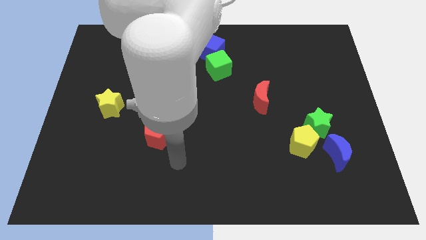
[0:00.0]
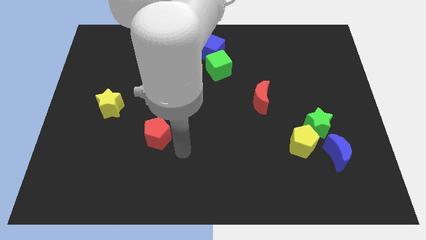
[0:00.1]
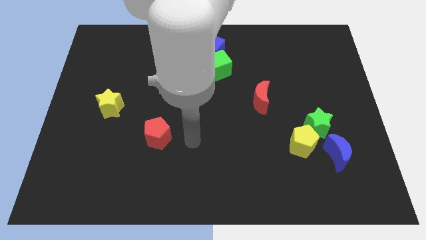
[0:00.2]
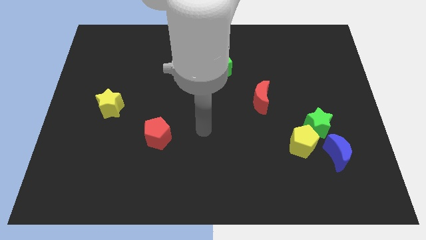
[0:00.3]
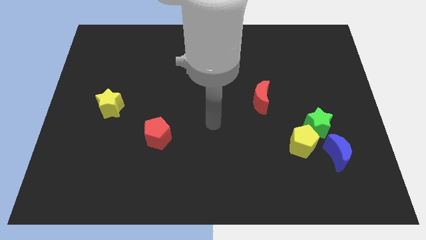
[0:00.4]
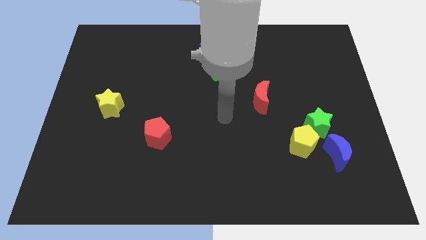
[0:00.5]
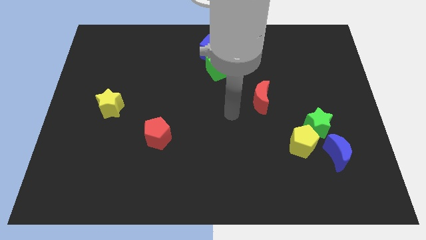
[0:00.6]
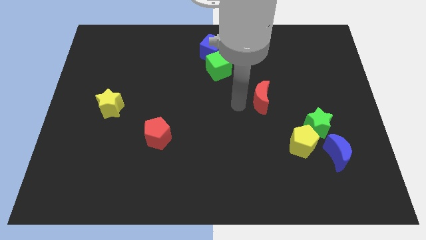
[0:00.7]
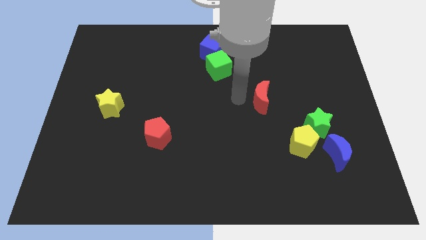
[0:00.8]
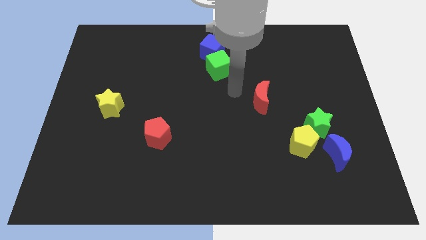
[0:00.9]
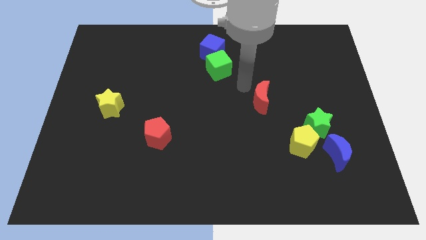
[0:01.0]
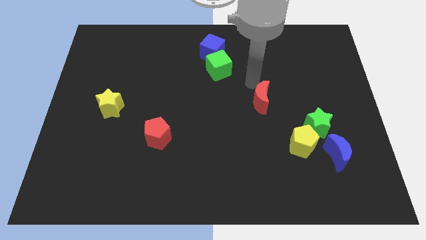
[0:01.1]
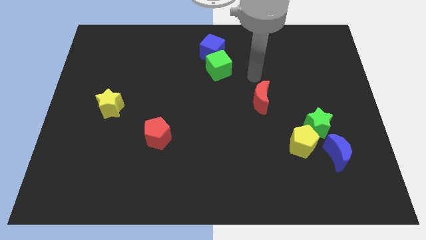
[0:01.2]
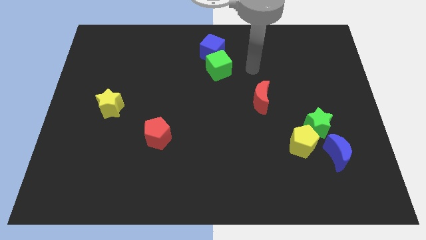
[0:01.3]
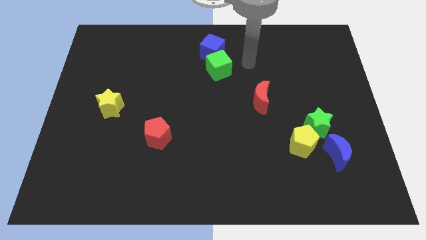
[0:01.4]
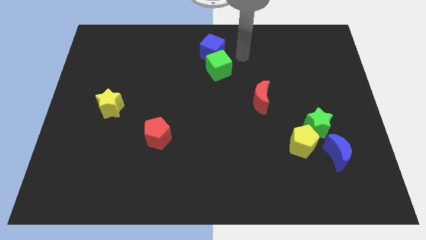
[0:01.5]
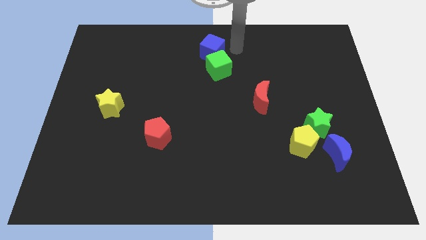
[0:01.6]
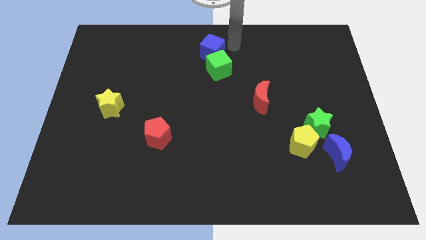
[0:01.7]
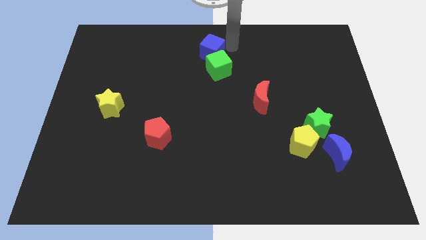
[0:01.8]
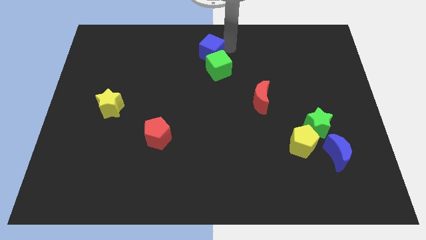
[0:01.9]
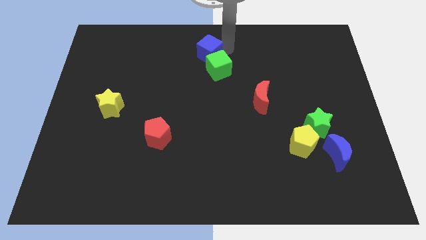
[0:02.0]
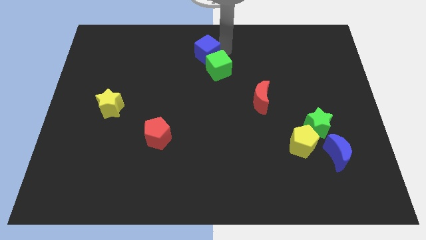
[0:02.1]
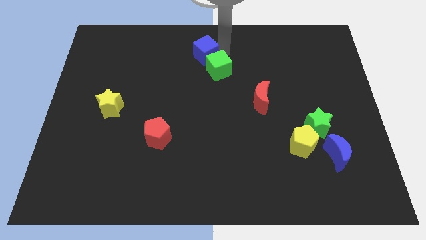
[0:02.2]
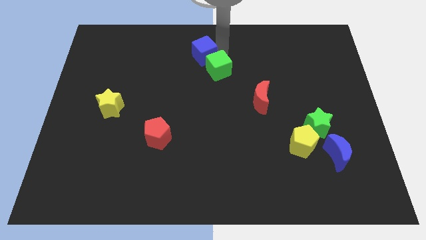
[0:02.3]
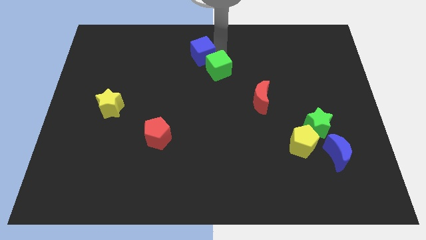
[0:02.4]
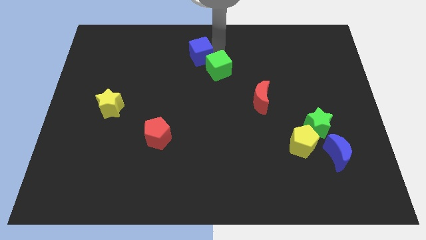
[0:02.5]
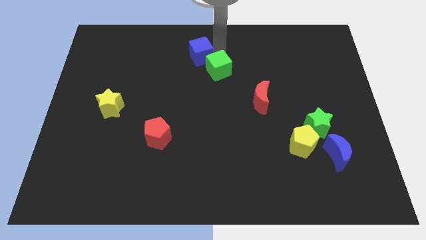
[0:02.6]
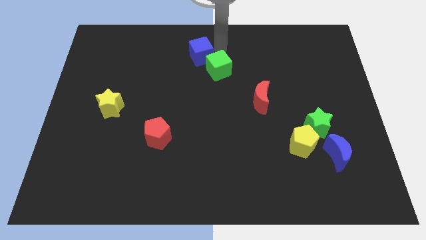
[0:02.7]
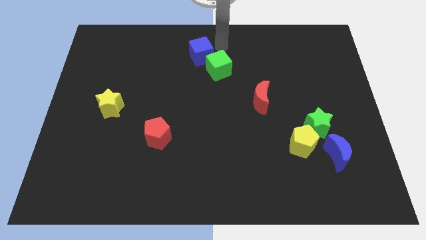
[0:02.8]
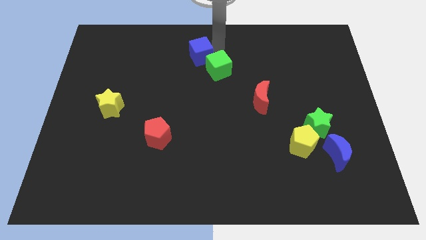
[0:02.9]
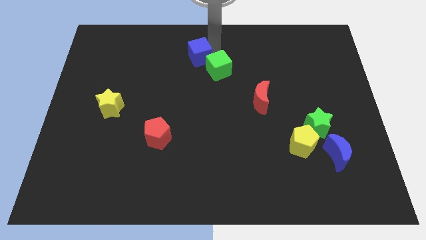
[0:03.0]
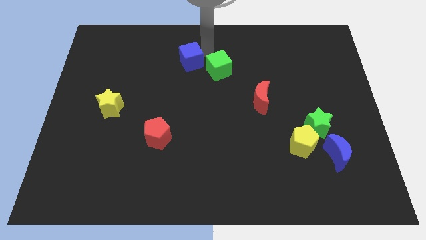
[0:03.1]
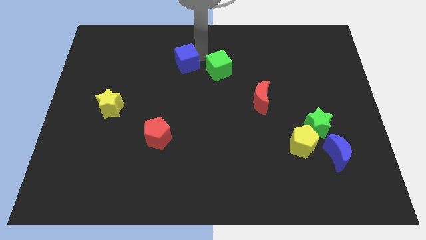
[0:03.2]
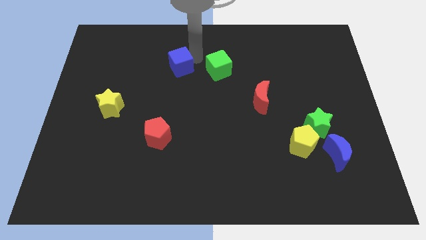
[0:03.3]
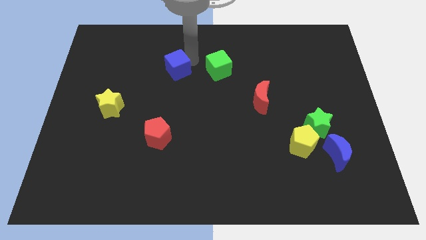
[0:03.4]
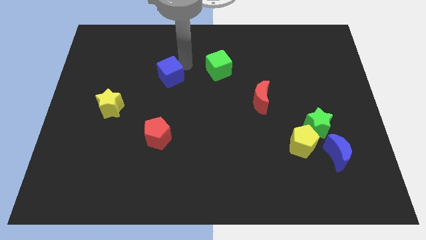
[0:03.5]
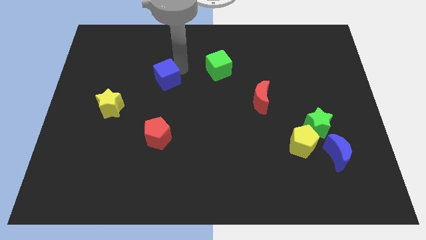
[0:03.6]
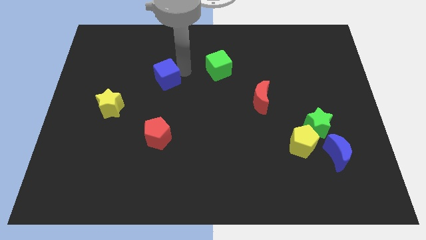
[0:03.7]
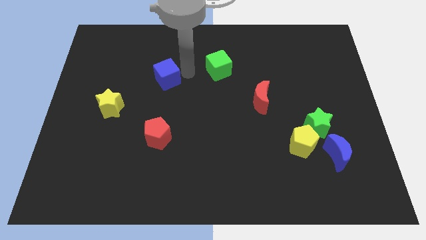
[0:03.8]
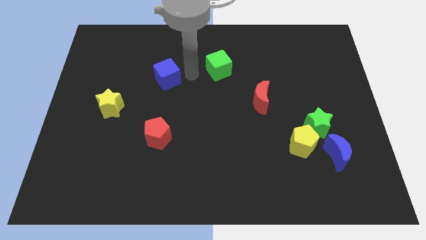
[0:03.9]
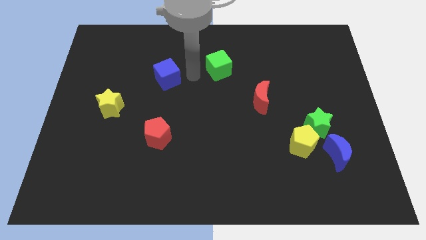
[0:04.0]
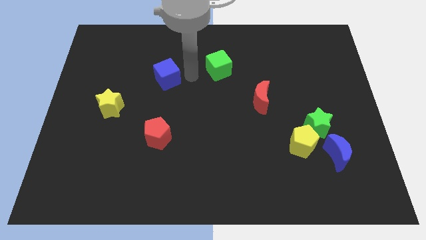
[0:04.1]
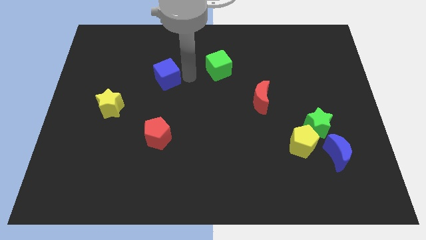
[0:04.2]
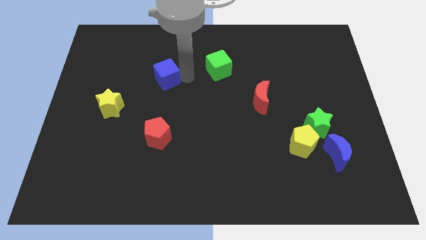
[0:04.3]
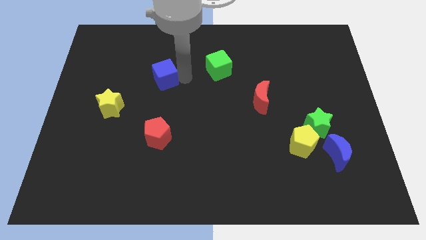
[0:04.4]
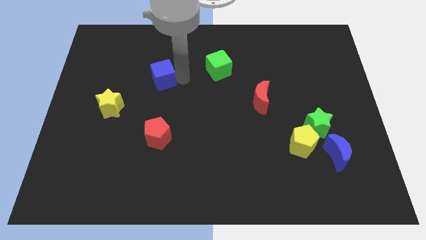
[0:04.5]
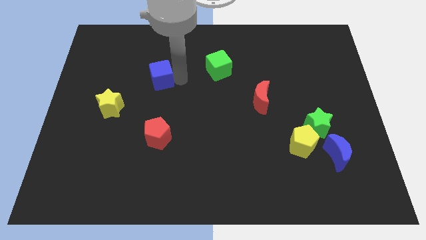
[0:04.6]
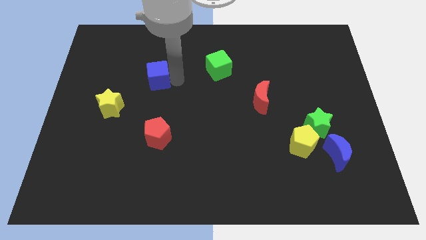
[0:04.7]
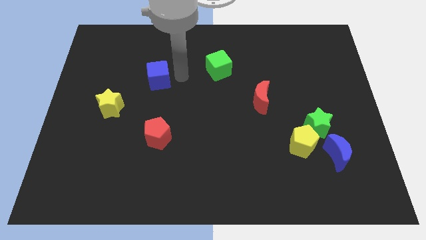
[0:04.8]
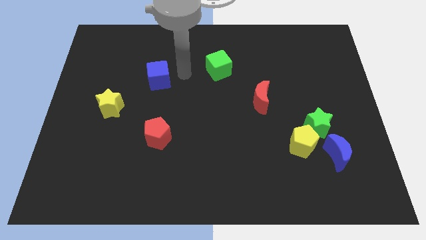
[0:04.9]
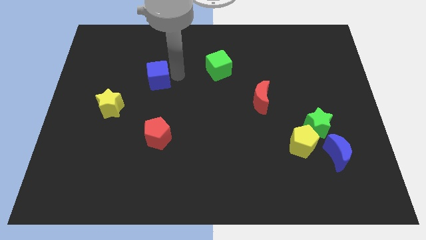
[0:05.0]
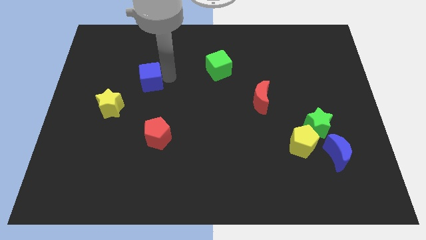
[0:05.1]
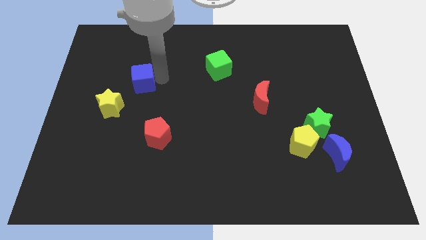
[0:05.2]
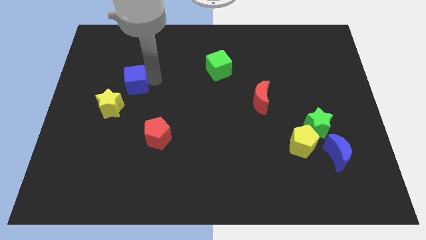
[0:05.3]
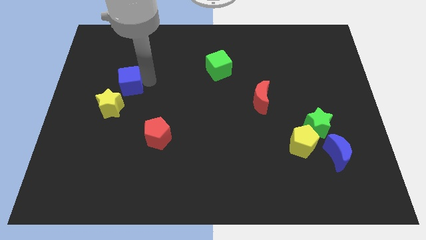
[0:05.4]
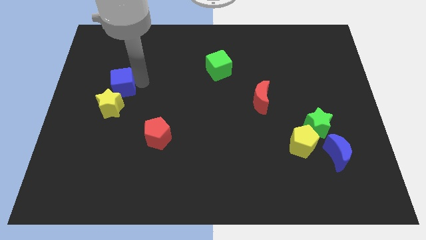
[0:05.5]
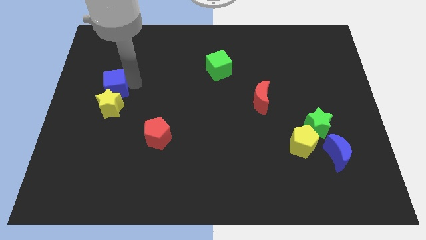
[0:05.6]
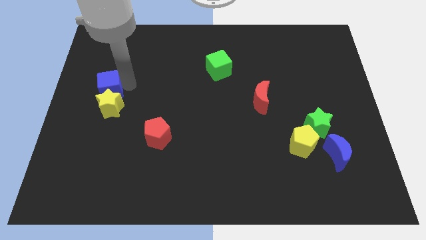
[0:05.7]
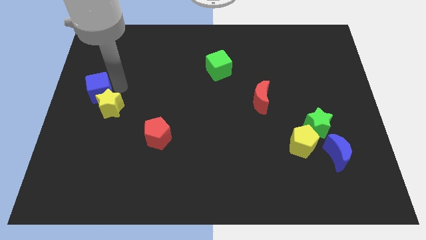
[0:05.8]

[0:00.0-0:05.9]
slide the blue cube to the left side of the board
